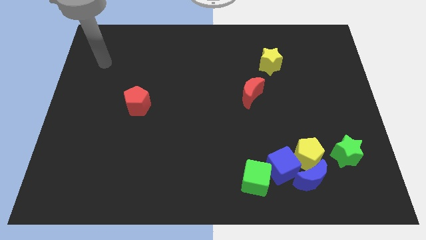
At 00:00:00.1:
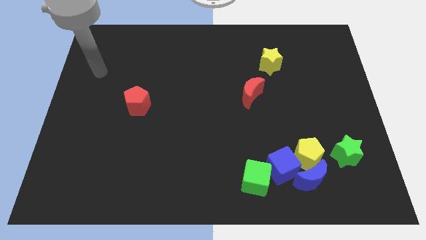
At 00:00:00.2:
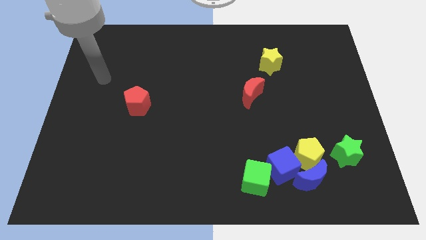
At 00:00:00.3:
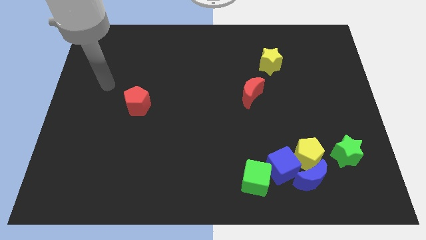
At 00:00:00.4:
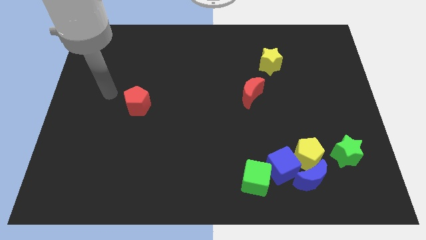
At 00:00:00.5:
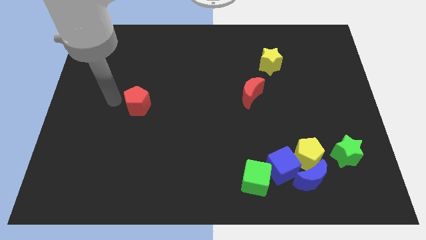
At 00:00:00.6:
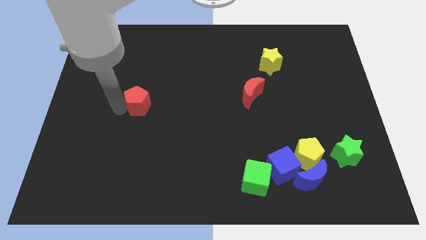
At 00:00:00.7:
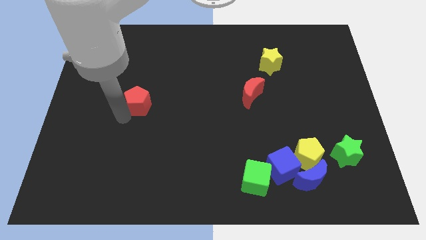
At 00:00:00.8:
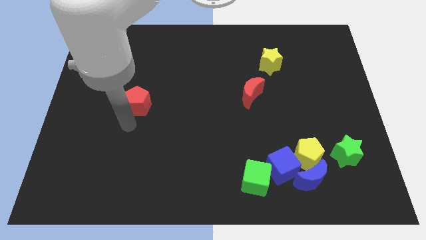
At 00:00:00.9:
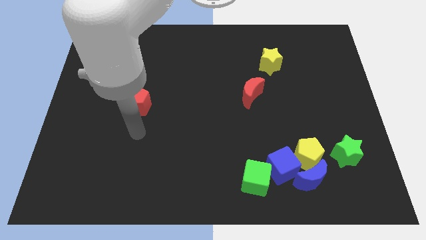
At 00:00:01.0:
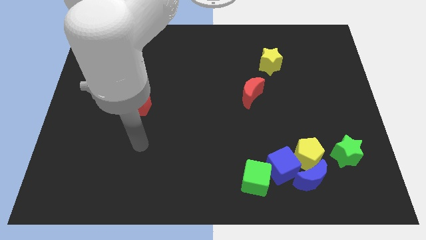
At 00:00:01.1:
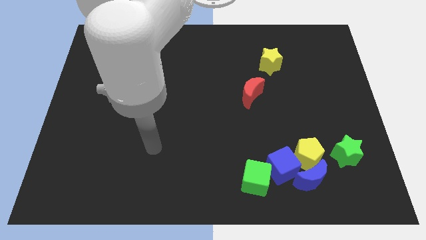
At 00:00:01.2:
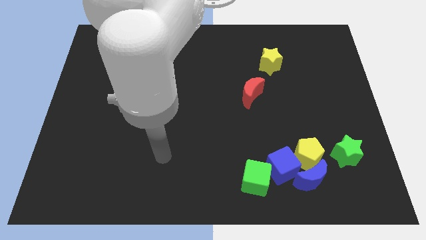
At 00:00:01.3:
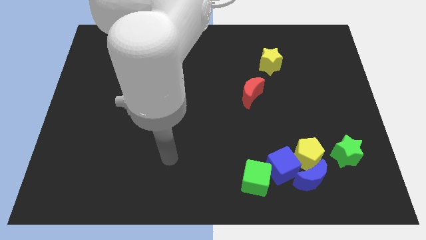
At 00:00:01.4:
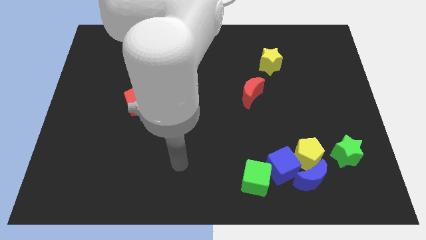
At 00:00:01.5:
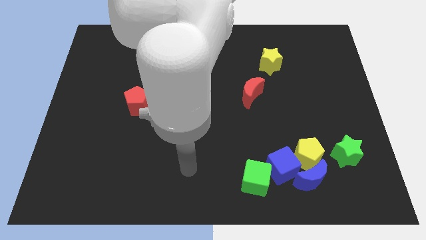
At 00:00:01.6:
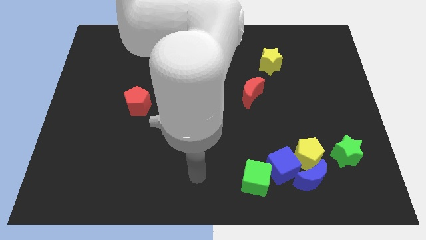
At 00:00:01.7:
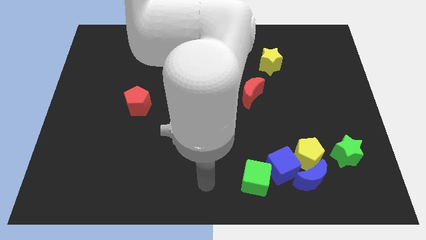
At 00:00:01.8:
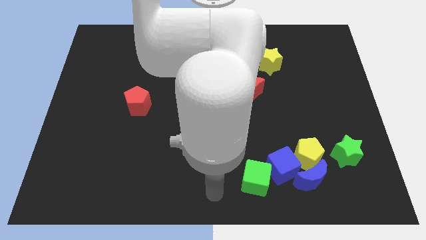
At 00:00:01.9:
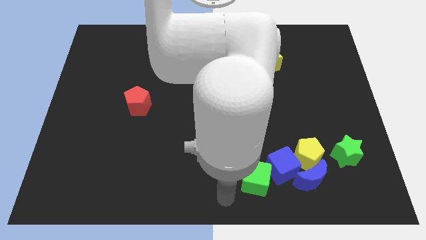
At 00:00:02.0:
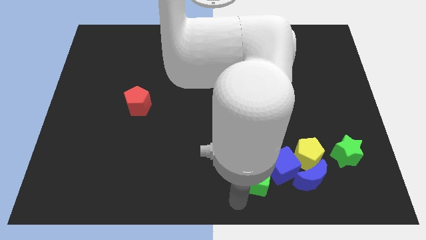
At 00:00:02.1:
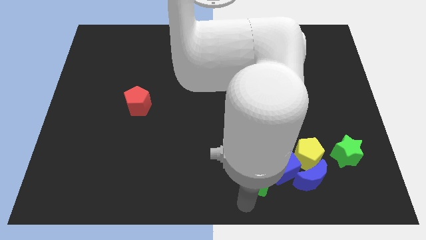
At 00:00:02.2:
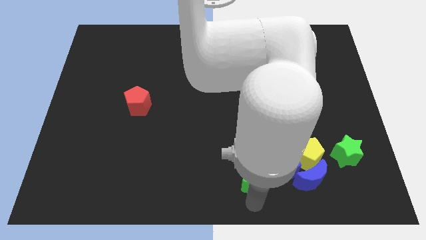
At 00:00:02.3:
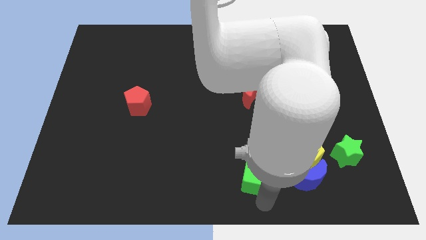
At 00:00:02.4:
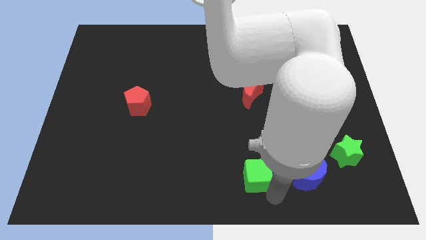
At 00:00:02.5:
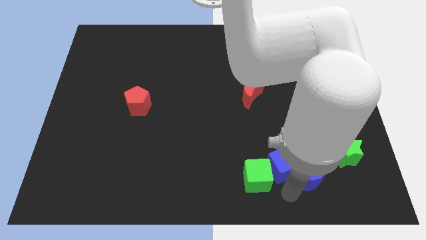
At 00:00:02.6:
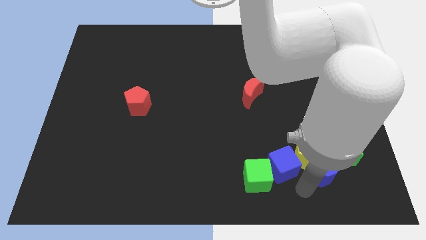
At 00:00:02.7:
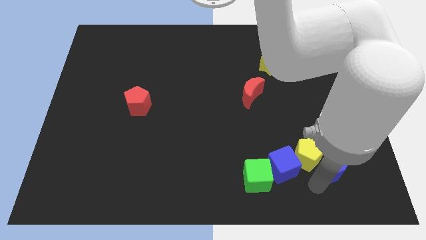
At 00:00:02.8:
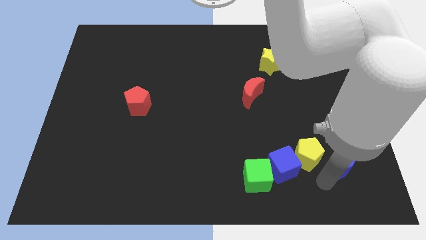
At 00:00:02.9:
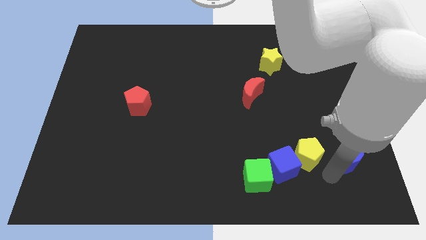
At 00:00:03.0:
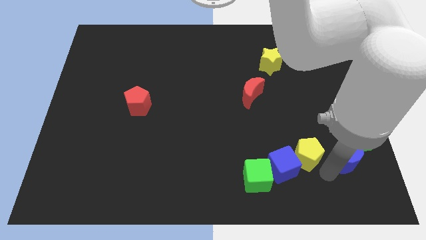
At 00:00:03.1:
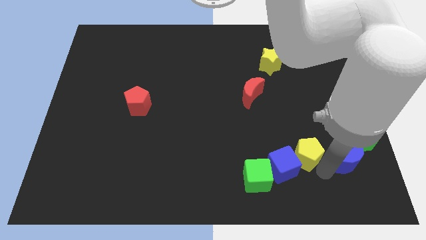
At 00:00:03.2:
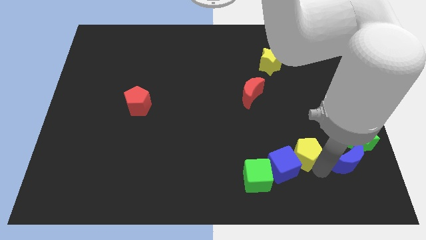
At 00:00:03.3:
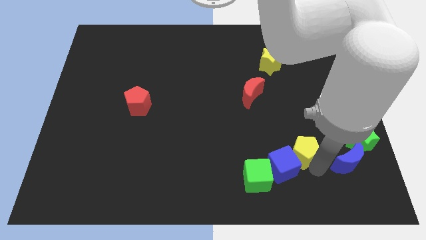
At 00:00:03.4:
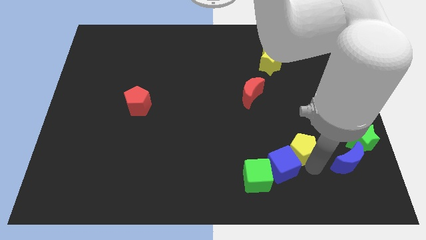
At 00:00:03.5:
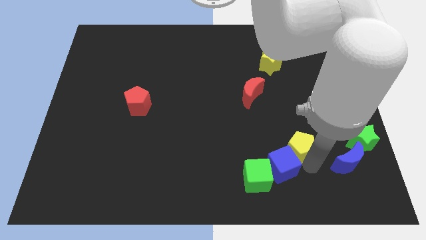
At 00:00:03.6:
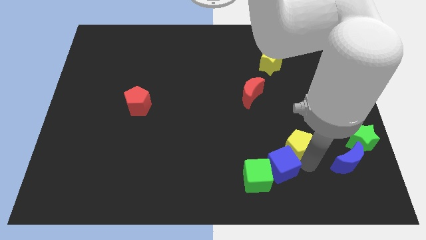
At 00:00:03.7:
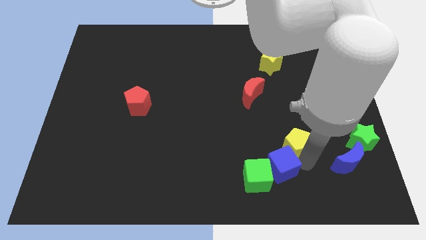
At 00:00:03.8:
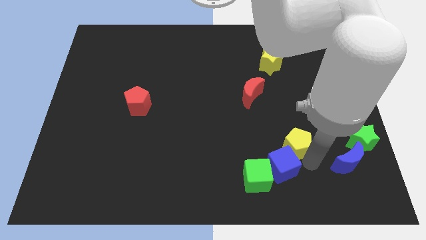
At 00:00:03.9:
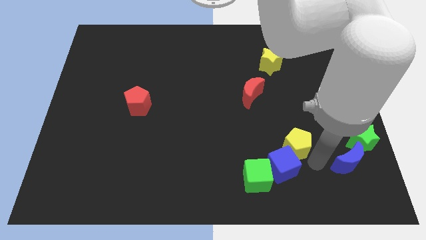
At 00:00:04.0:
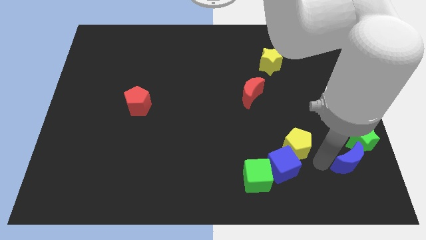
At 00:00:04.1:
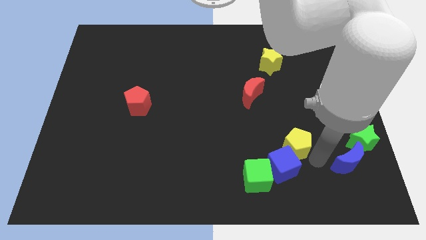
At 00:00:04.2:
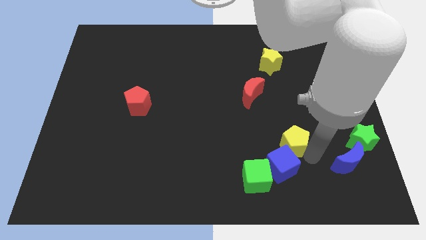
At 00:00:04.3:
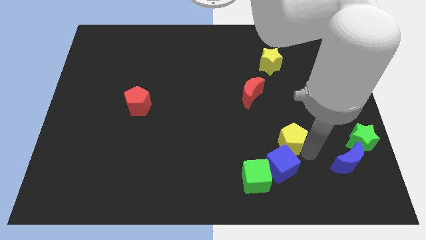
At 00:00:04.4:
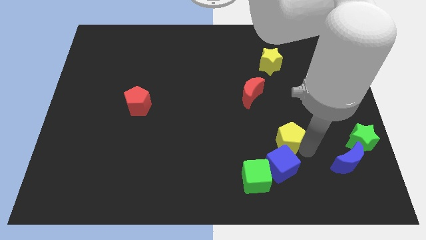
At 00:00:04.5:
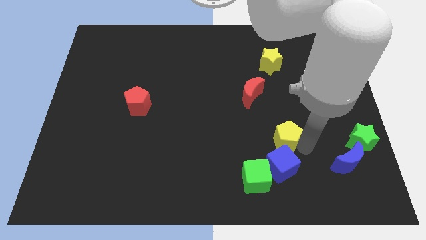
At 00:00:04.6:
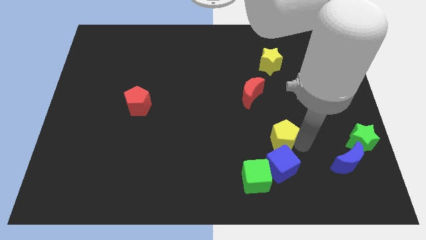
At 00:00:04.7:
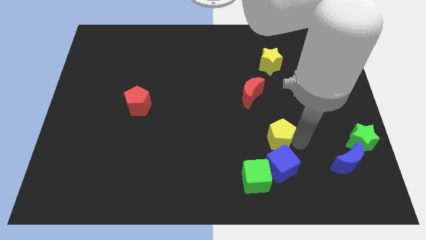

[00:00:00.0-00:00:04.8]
slide the yellow pentagon diagonally upwards and to the left somewhat

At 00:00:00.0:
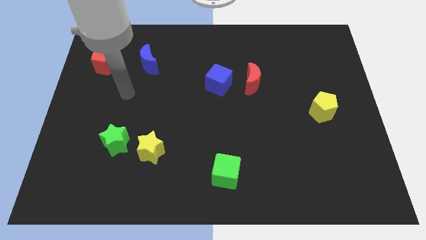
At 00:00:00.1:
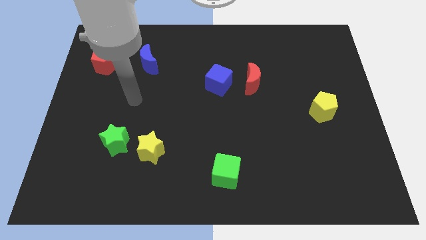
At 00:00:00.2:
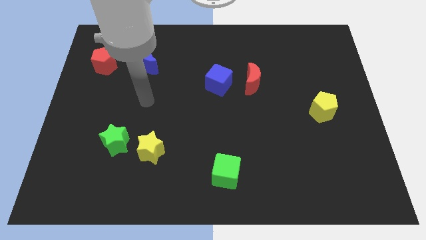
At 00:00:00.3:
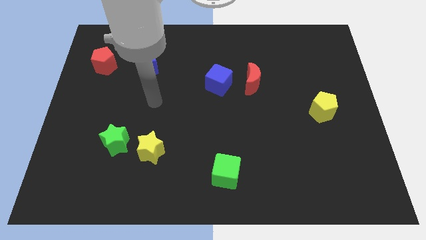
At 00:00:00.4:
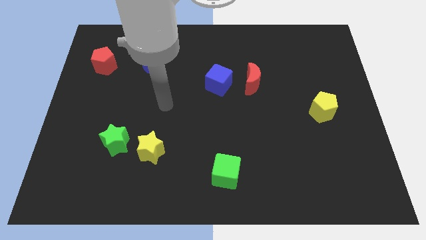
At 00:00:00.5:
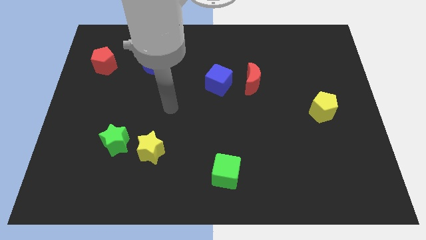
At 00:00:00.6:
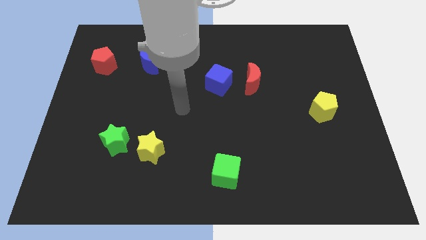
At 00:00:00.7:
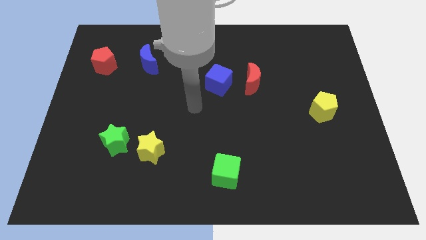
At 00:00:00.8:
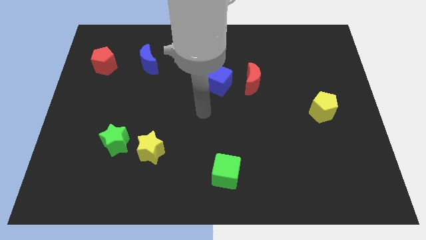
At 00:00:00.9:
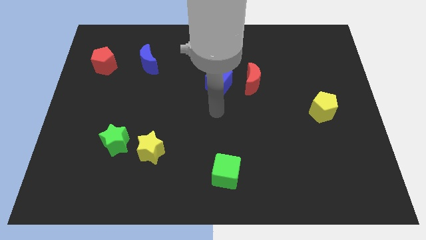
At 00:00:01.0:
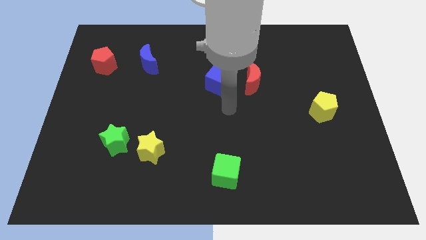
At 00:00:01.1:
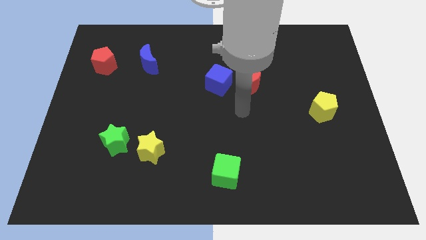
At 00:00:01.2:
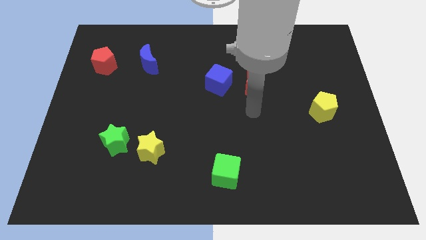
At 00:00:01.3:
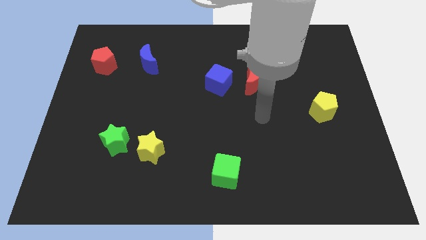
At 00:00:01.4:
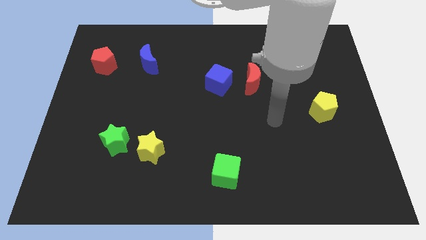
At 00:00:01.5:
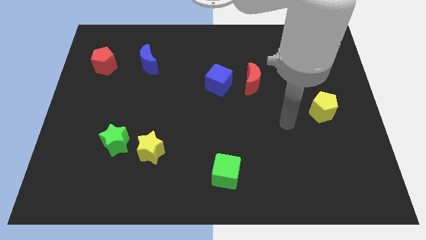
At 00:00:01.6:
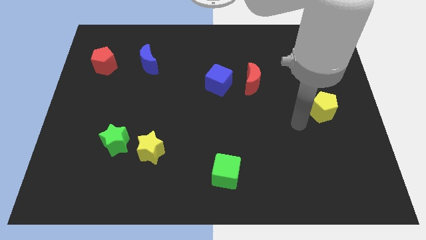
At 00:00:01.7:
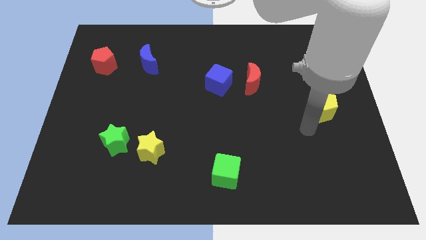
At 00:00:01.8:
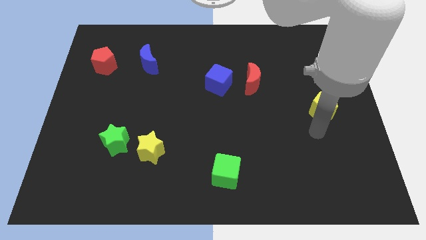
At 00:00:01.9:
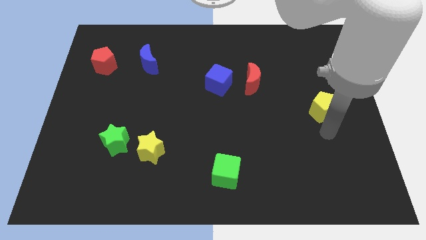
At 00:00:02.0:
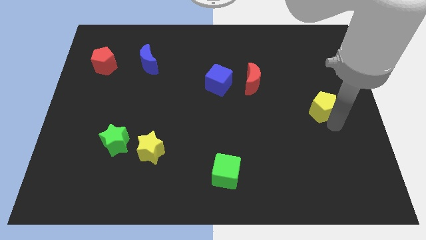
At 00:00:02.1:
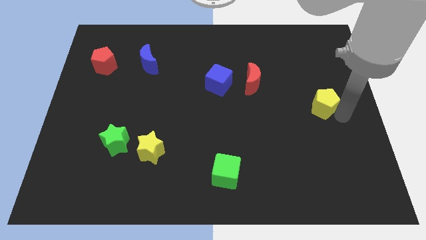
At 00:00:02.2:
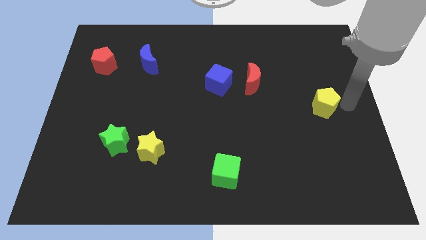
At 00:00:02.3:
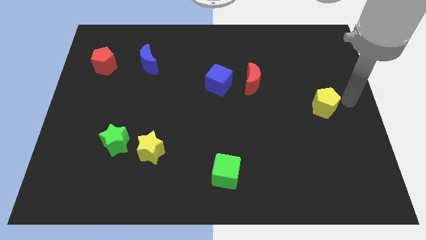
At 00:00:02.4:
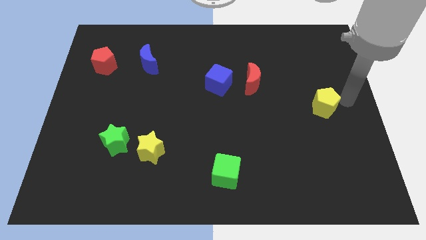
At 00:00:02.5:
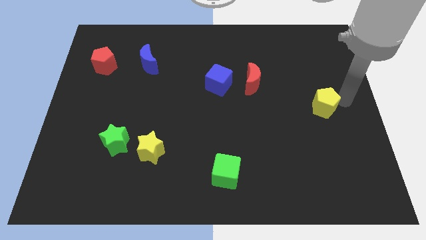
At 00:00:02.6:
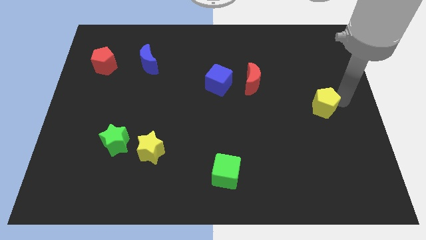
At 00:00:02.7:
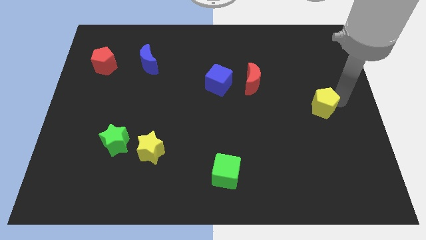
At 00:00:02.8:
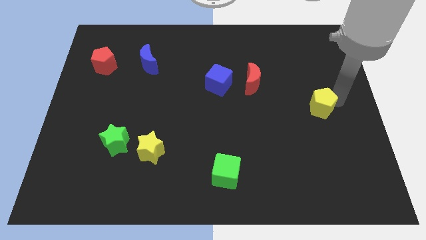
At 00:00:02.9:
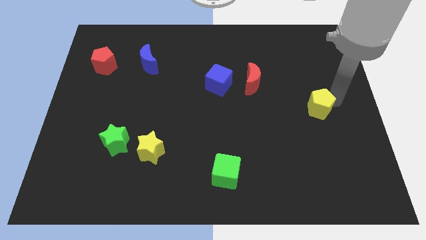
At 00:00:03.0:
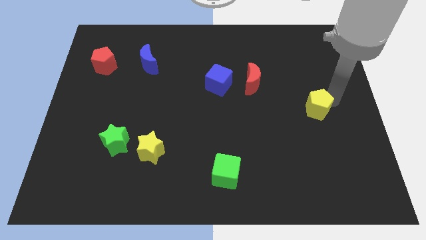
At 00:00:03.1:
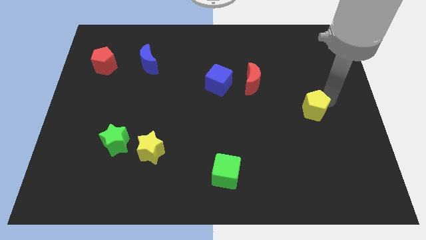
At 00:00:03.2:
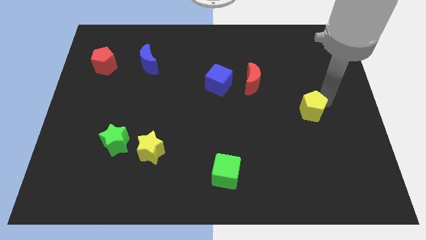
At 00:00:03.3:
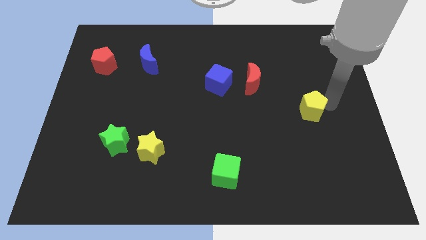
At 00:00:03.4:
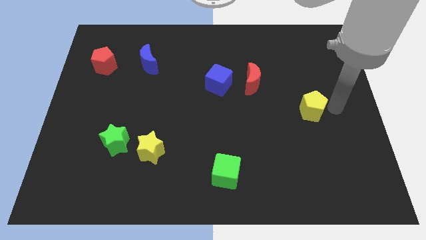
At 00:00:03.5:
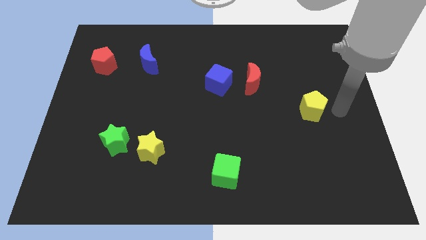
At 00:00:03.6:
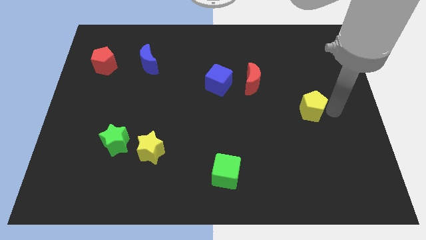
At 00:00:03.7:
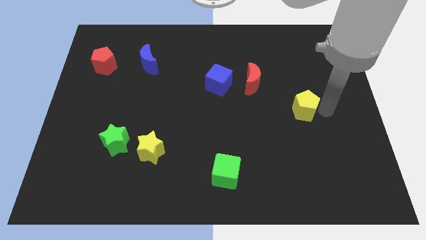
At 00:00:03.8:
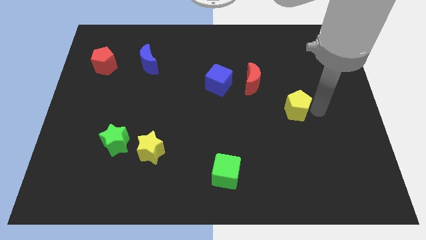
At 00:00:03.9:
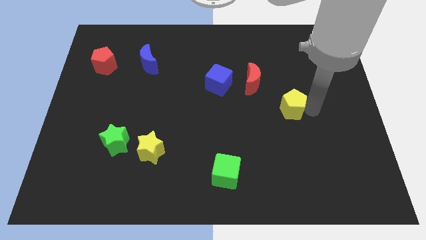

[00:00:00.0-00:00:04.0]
slide the yellow pentagon a little to the left
